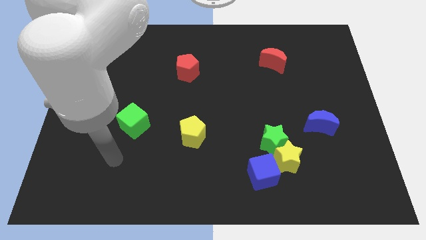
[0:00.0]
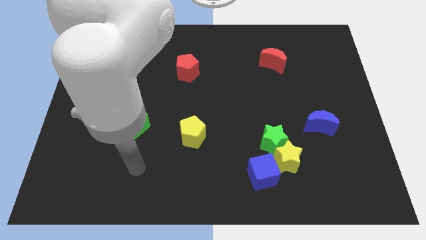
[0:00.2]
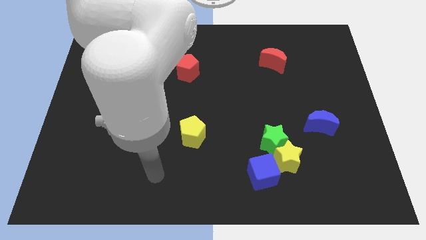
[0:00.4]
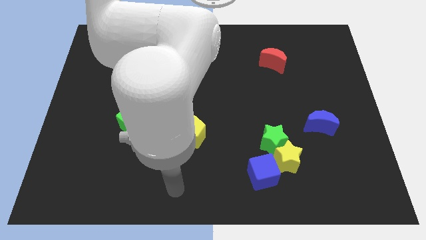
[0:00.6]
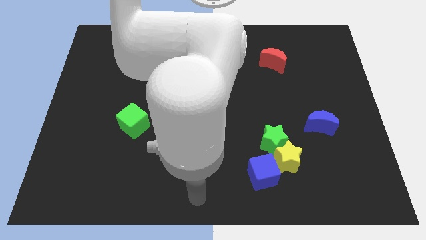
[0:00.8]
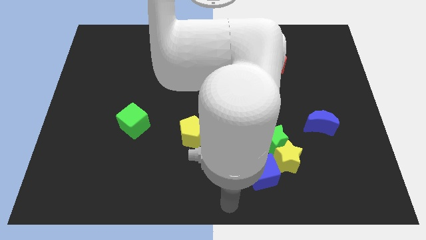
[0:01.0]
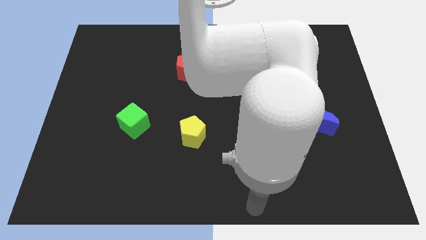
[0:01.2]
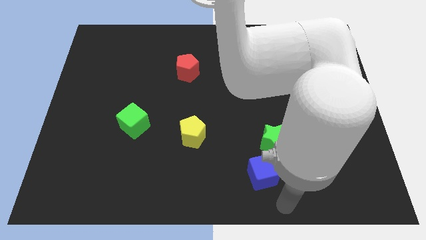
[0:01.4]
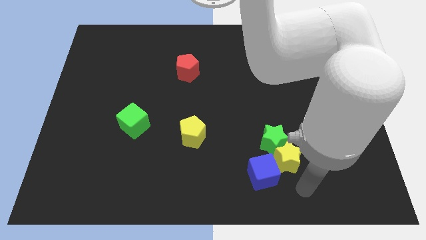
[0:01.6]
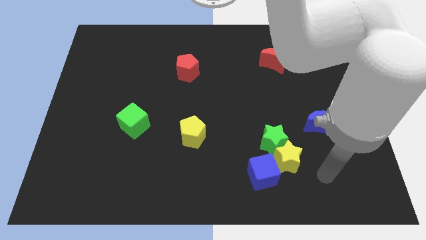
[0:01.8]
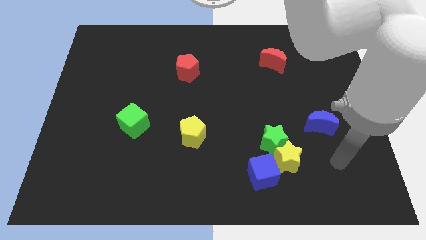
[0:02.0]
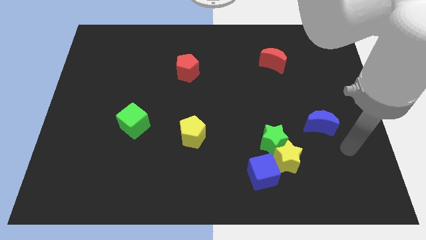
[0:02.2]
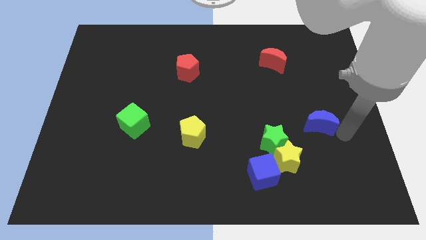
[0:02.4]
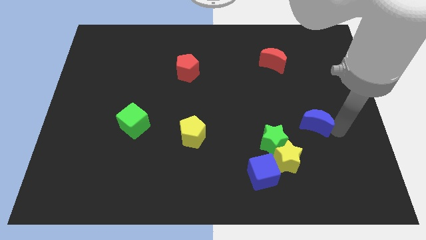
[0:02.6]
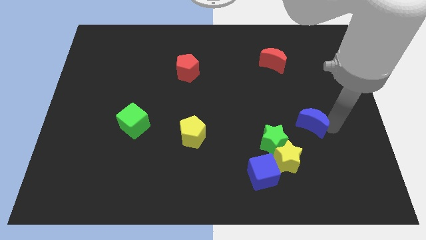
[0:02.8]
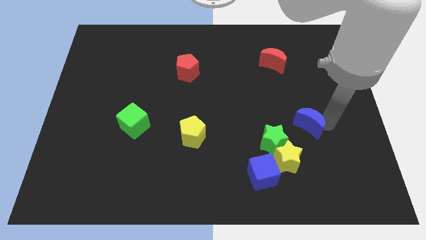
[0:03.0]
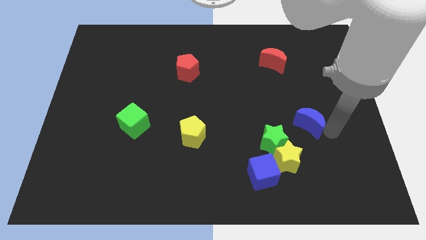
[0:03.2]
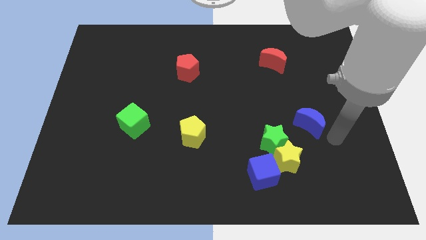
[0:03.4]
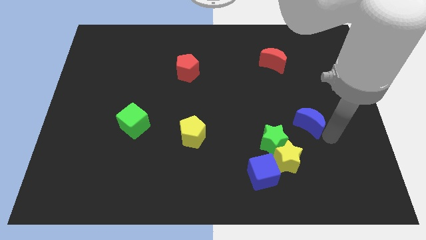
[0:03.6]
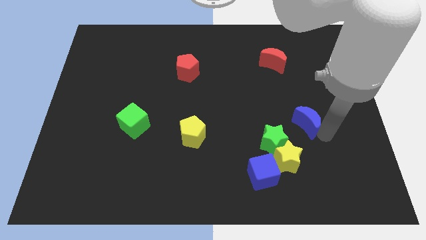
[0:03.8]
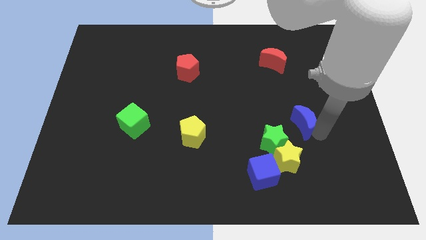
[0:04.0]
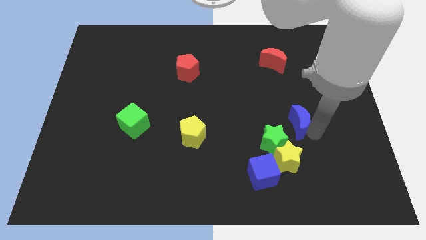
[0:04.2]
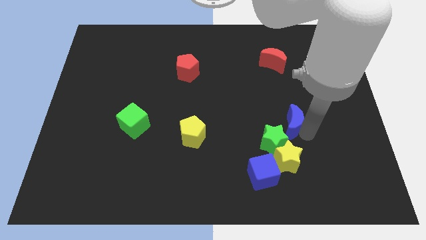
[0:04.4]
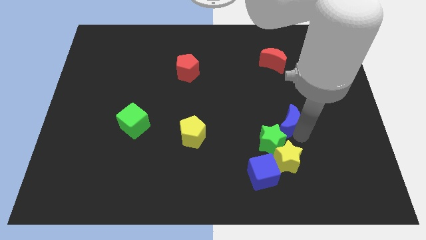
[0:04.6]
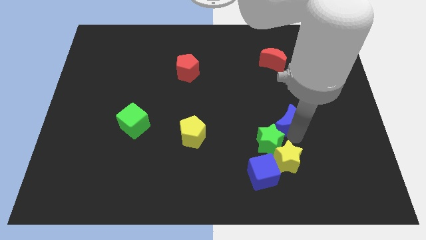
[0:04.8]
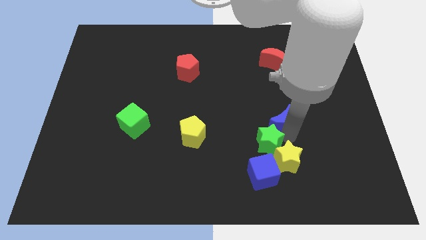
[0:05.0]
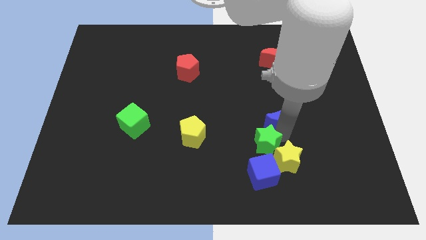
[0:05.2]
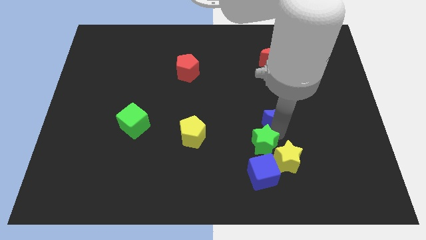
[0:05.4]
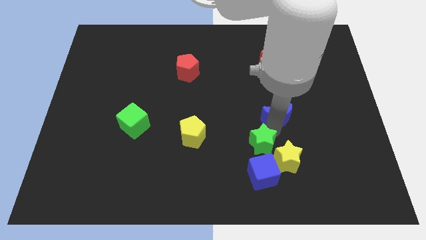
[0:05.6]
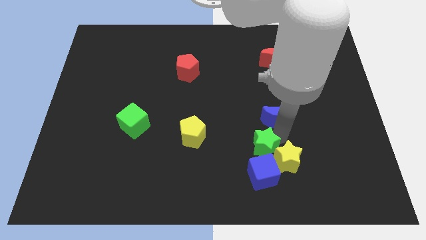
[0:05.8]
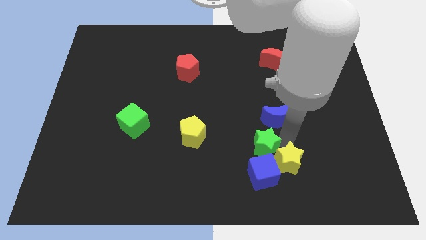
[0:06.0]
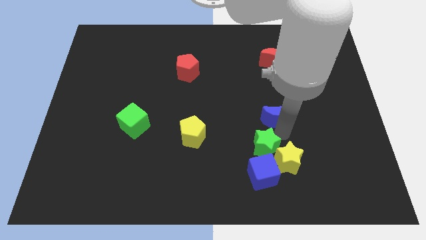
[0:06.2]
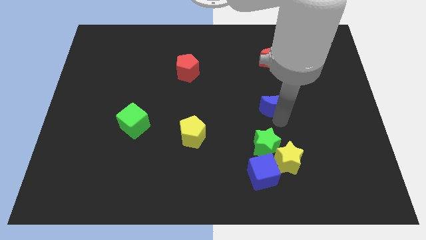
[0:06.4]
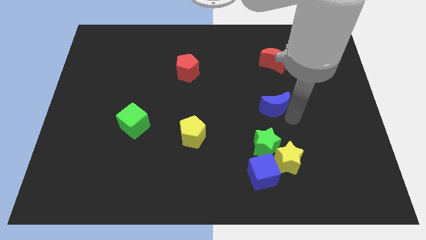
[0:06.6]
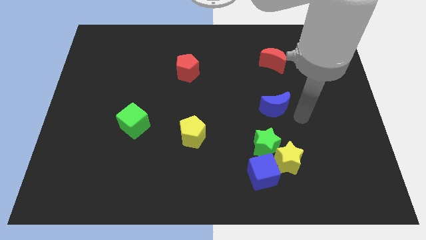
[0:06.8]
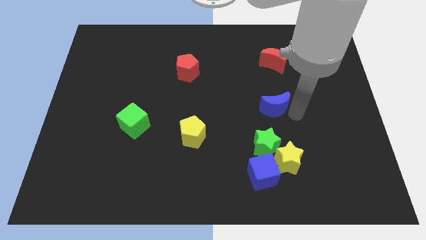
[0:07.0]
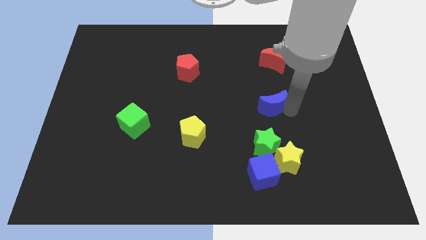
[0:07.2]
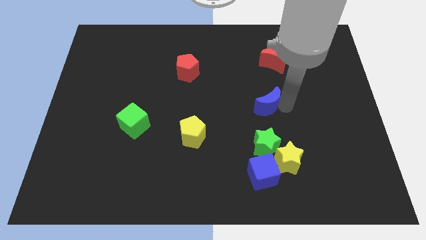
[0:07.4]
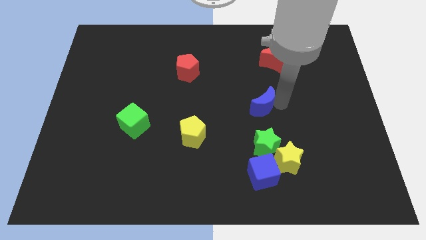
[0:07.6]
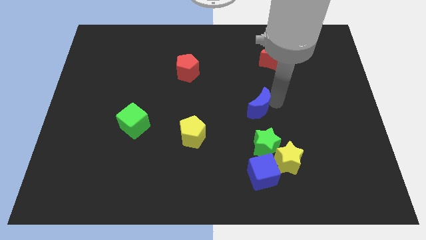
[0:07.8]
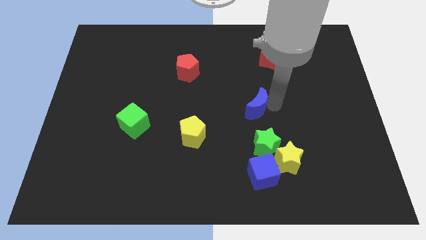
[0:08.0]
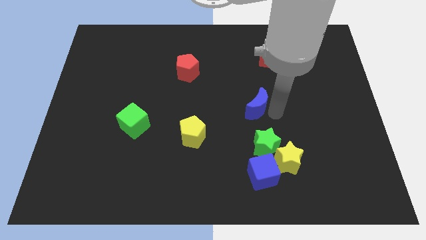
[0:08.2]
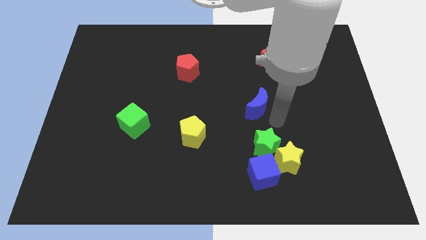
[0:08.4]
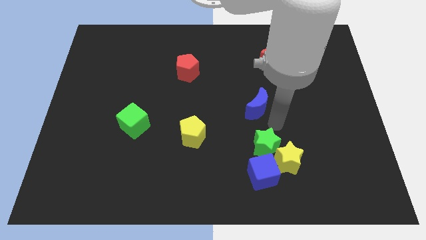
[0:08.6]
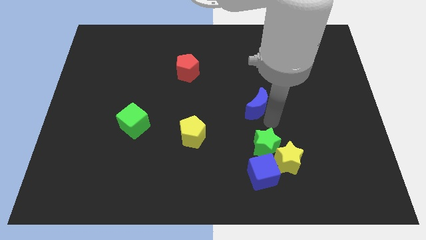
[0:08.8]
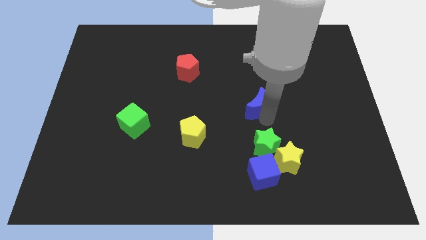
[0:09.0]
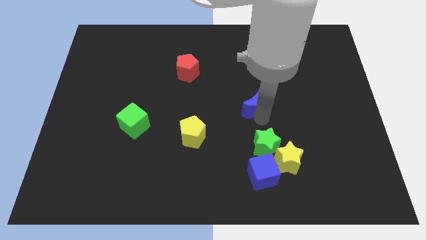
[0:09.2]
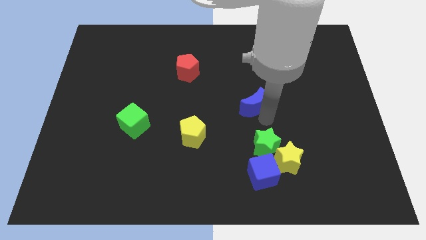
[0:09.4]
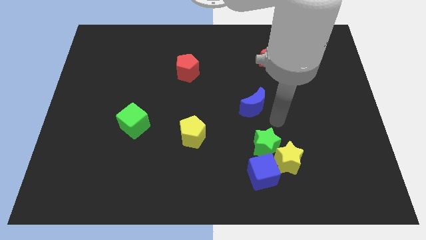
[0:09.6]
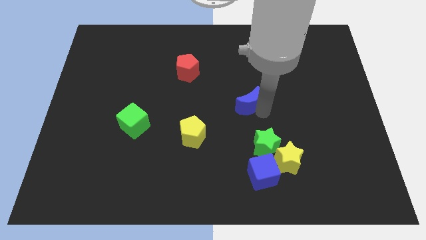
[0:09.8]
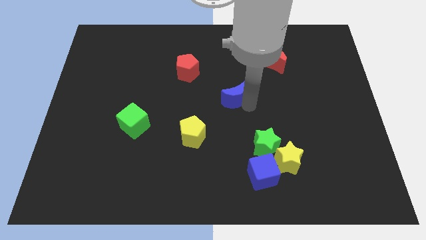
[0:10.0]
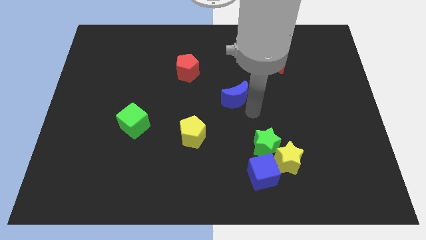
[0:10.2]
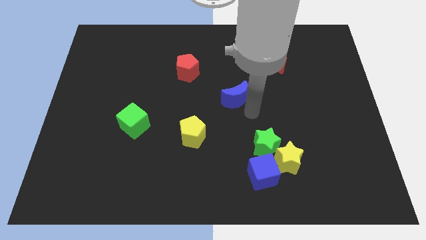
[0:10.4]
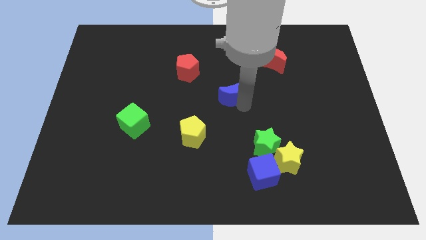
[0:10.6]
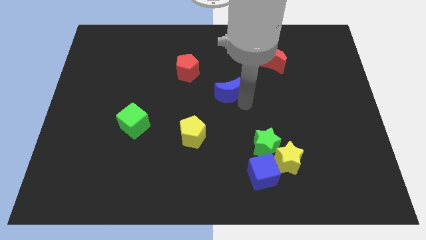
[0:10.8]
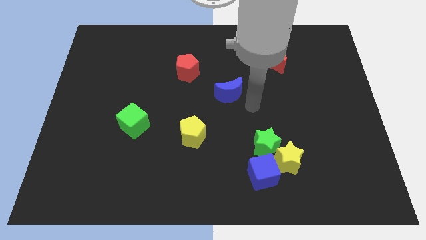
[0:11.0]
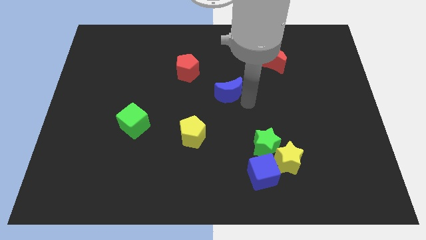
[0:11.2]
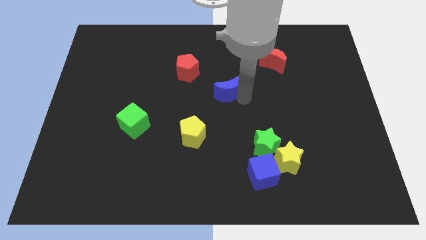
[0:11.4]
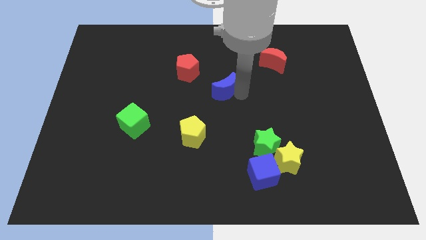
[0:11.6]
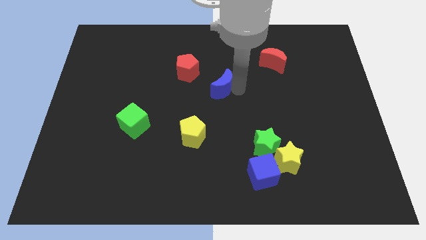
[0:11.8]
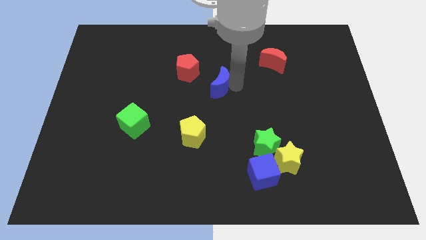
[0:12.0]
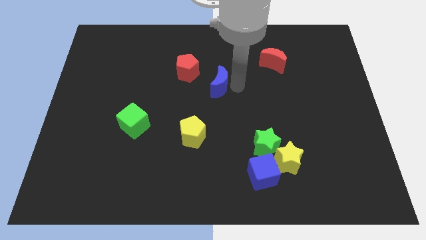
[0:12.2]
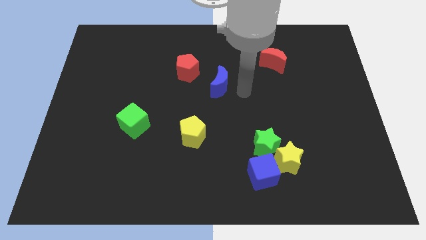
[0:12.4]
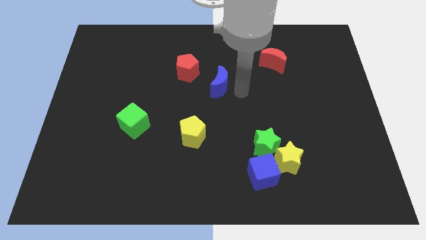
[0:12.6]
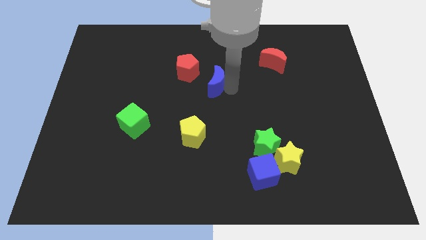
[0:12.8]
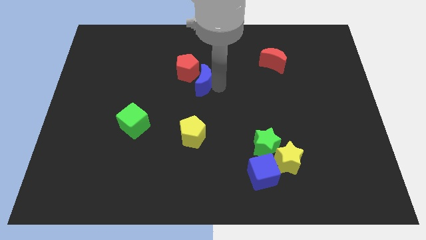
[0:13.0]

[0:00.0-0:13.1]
slide the blue moon towards the red pentagon
